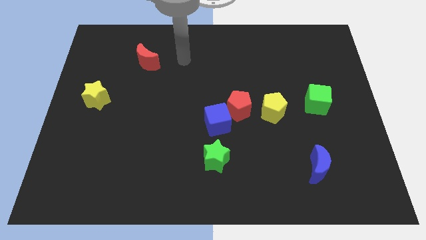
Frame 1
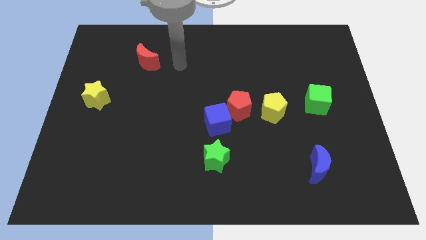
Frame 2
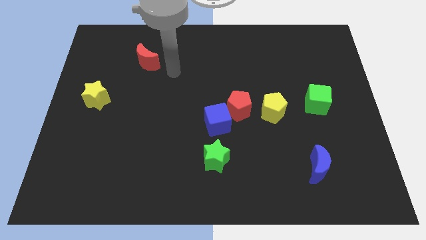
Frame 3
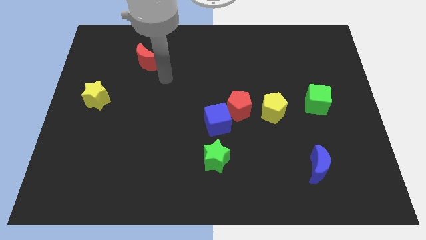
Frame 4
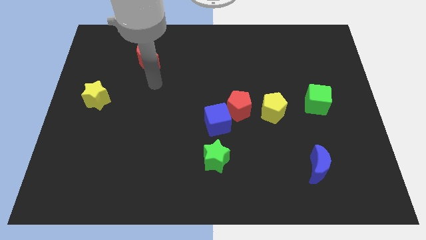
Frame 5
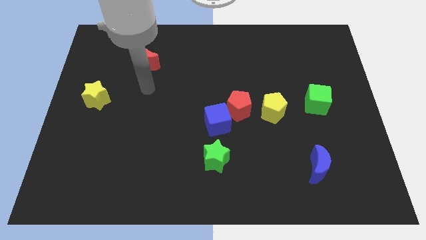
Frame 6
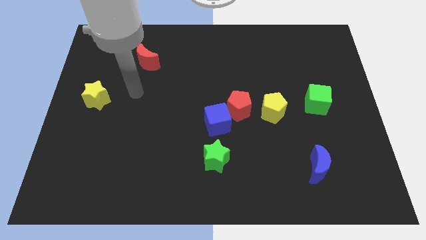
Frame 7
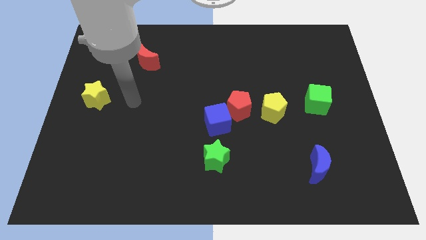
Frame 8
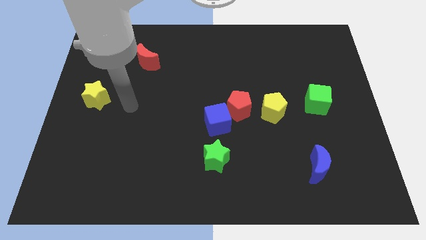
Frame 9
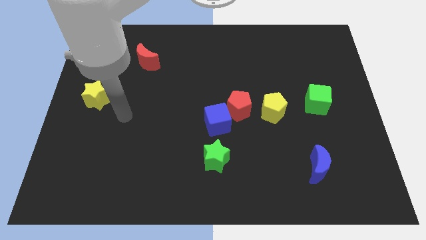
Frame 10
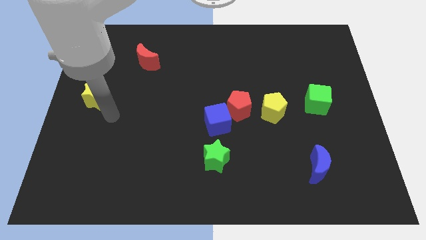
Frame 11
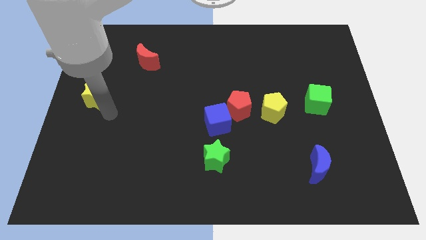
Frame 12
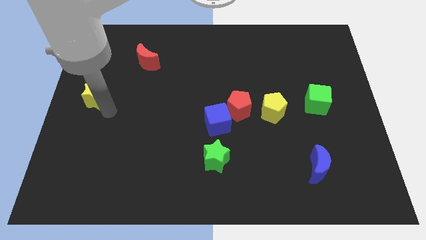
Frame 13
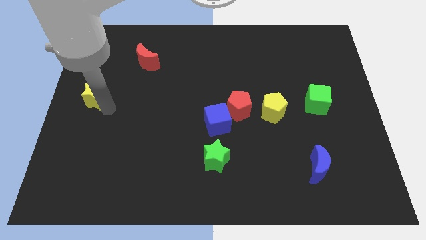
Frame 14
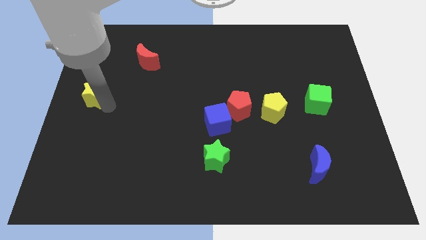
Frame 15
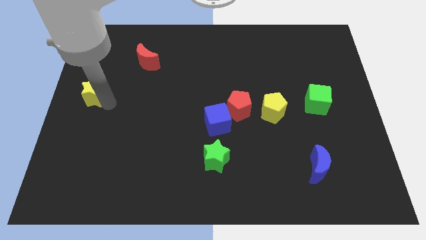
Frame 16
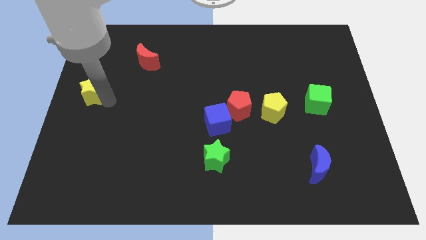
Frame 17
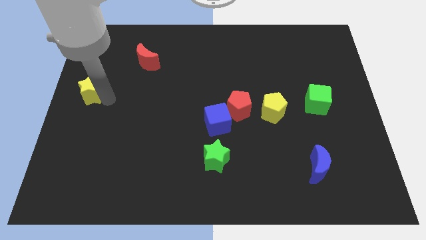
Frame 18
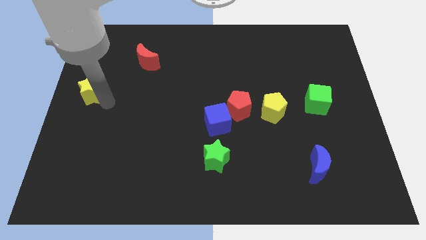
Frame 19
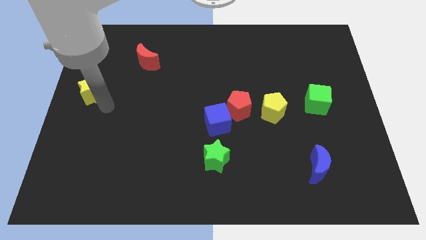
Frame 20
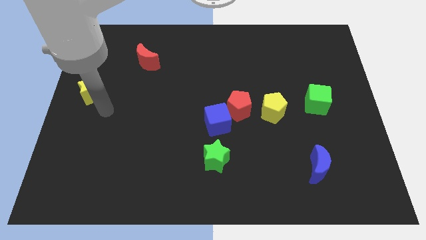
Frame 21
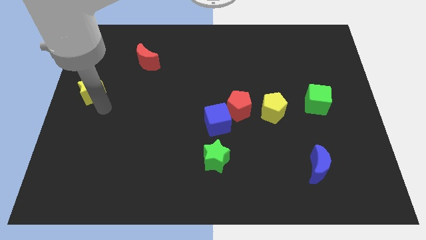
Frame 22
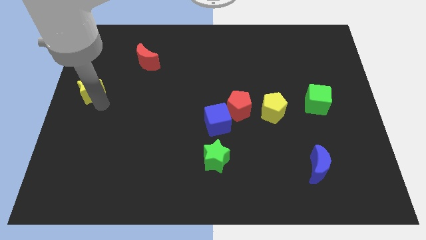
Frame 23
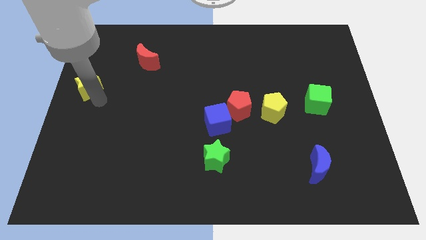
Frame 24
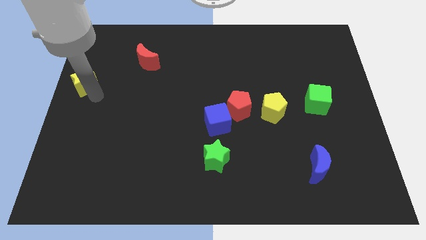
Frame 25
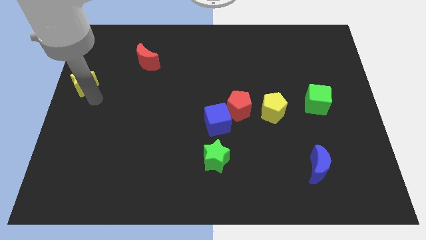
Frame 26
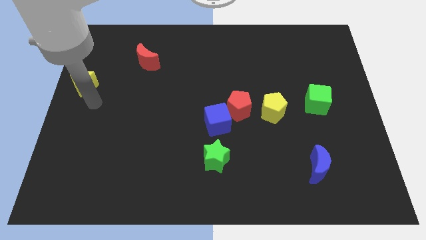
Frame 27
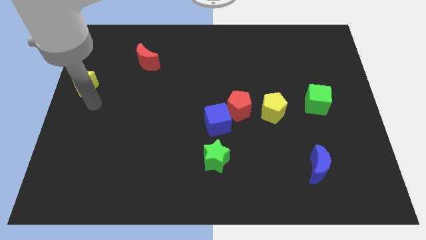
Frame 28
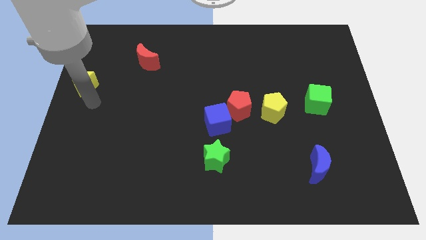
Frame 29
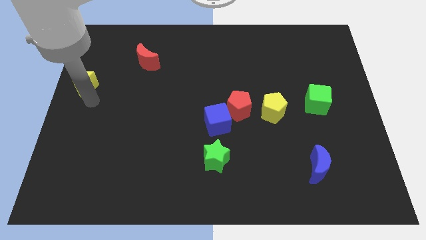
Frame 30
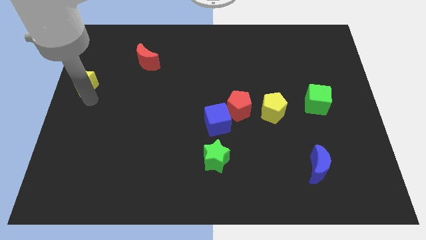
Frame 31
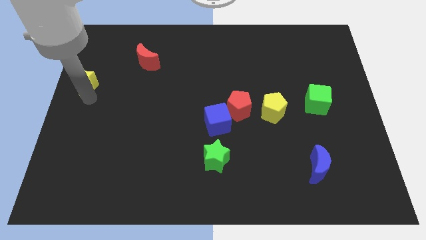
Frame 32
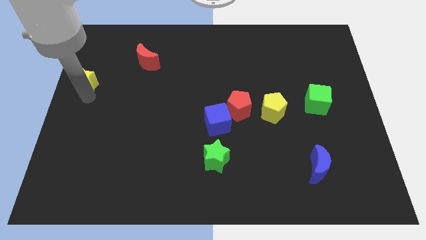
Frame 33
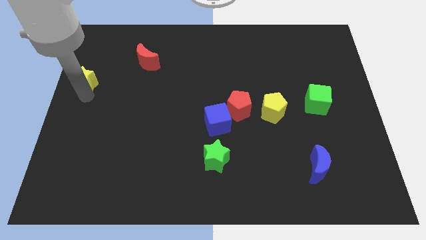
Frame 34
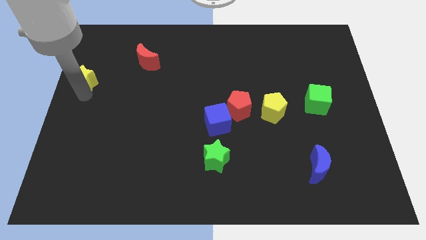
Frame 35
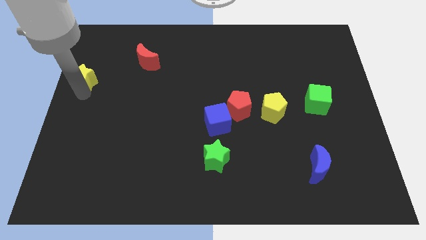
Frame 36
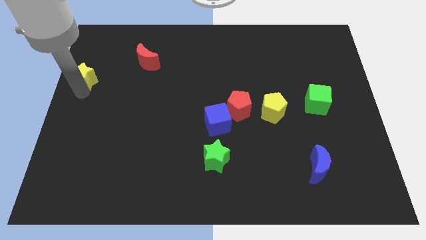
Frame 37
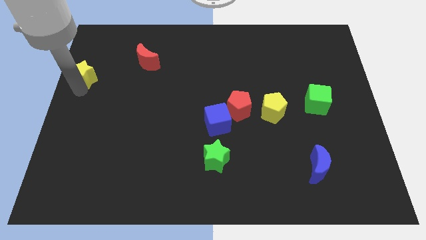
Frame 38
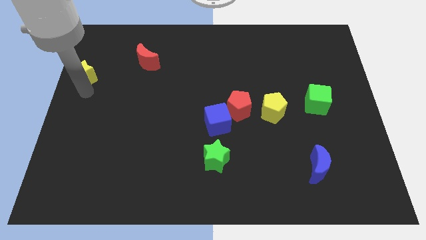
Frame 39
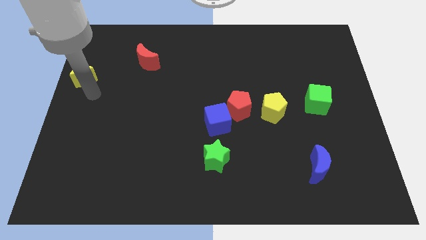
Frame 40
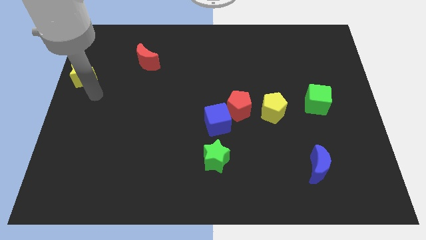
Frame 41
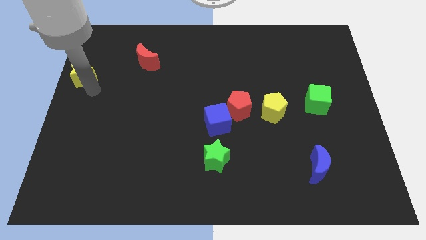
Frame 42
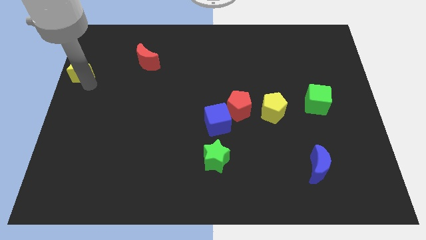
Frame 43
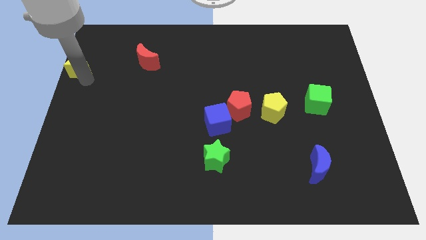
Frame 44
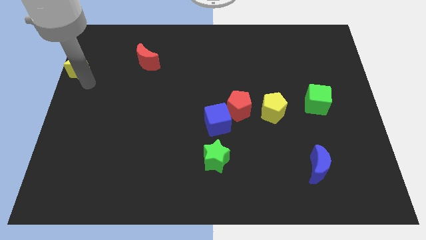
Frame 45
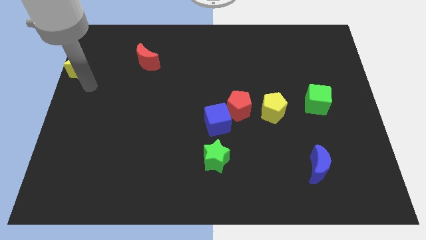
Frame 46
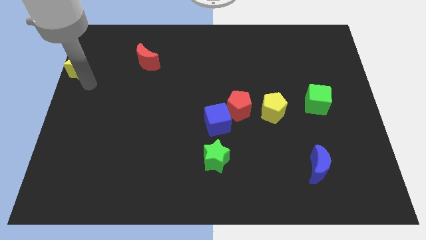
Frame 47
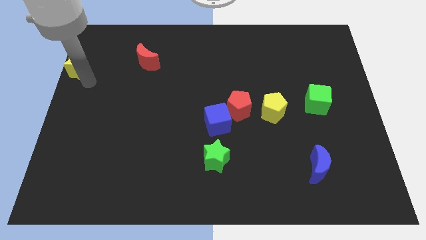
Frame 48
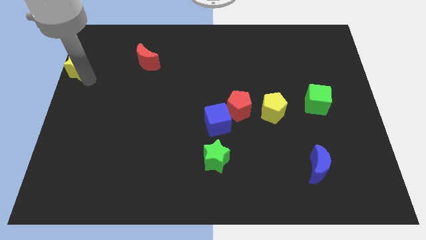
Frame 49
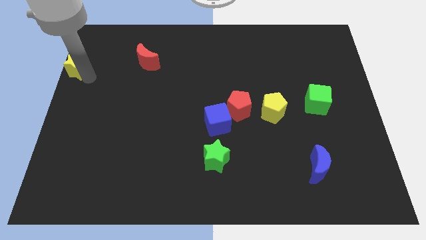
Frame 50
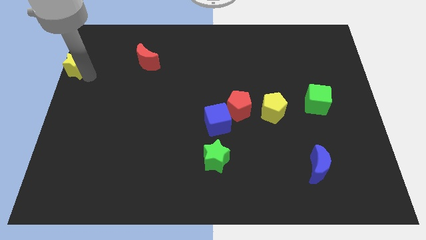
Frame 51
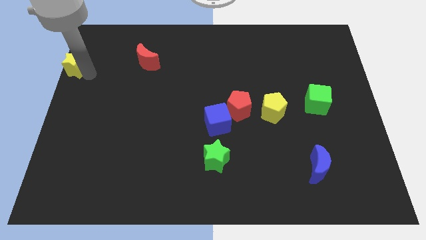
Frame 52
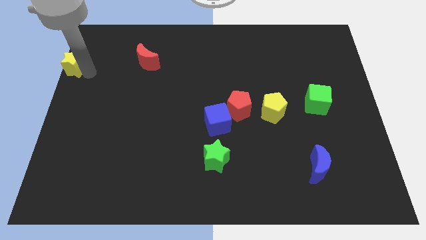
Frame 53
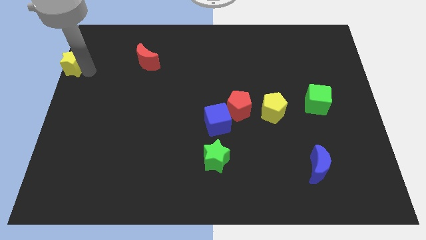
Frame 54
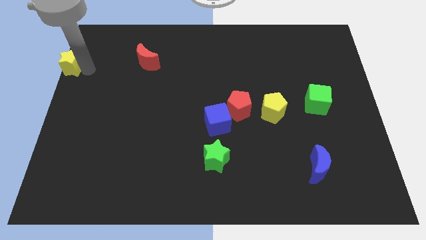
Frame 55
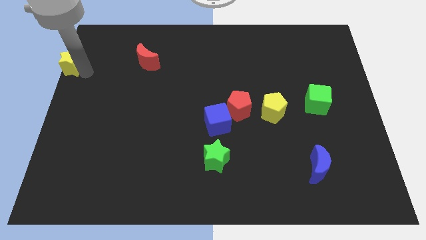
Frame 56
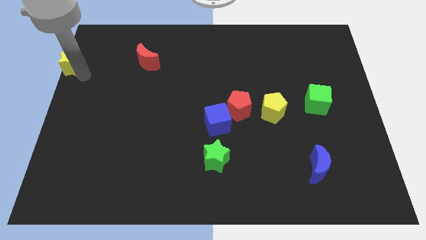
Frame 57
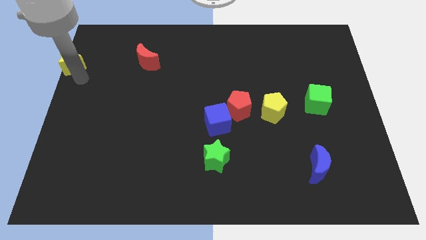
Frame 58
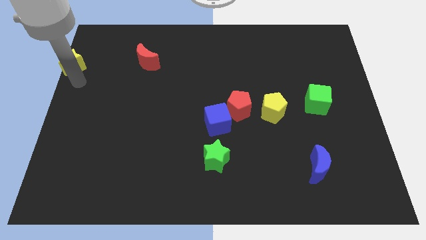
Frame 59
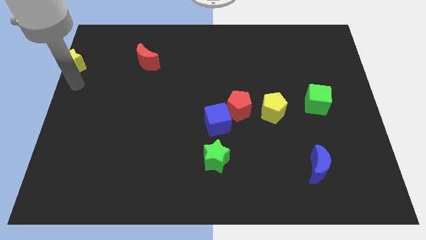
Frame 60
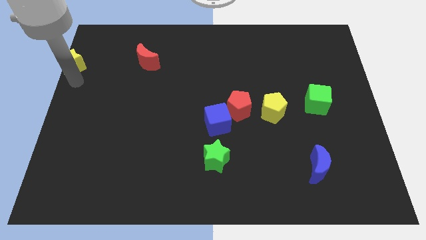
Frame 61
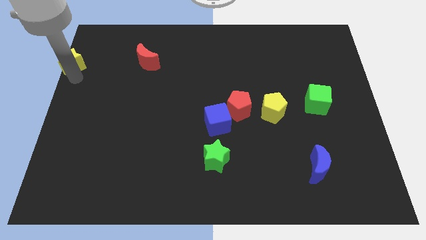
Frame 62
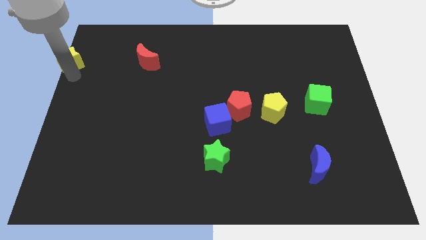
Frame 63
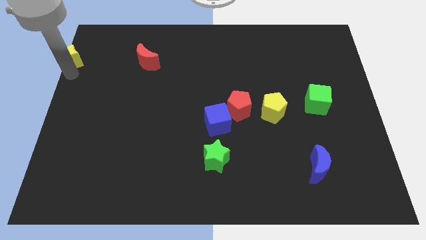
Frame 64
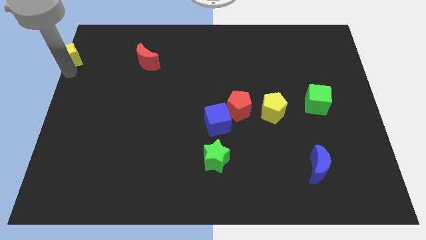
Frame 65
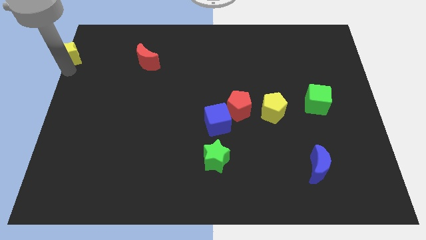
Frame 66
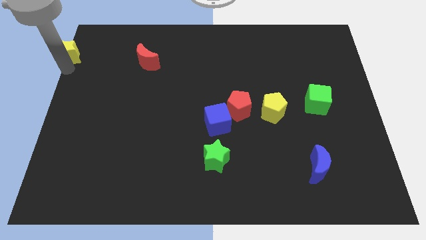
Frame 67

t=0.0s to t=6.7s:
push the yellow star to the upper left corner

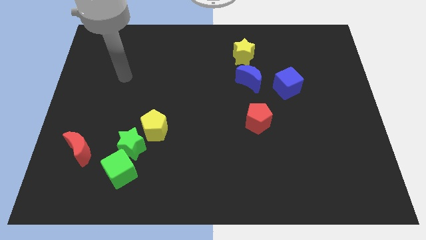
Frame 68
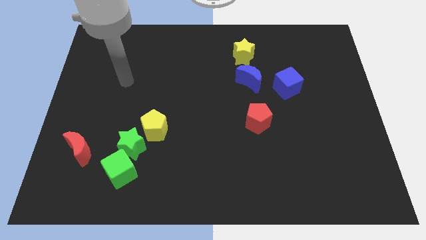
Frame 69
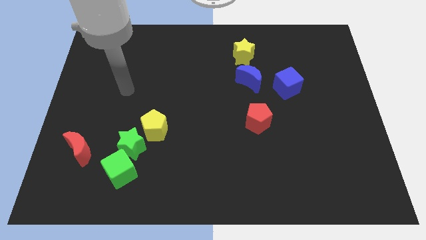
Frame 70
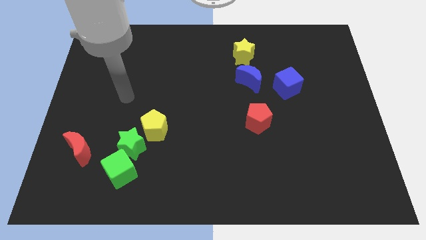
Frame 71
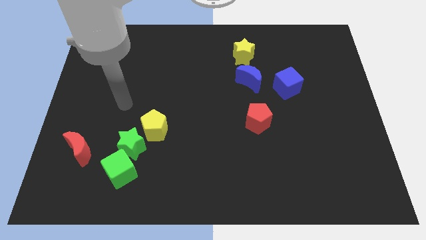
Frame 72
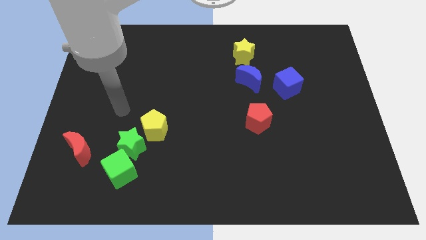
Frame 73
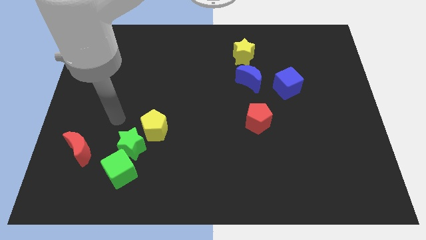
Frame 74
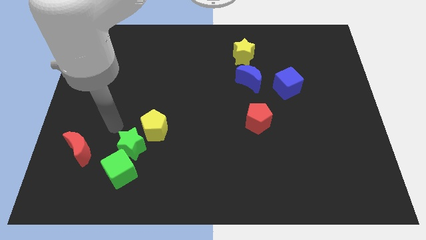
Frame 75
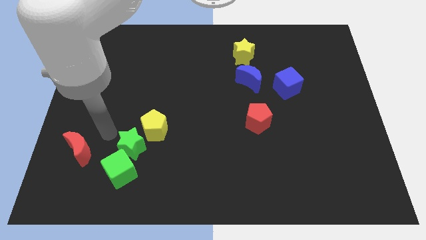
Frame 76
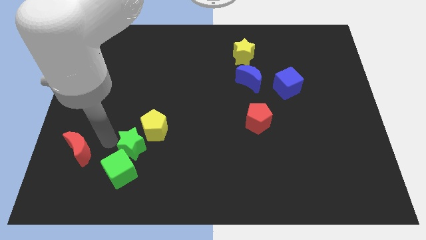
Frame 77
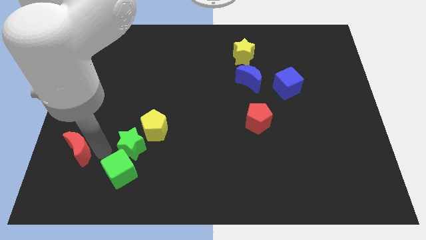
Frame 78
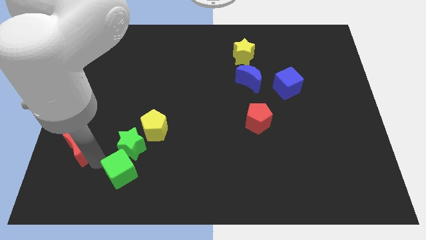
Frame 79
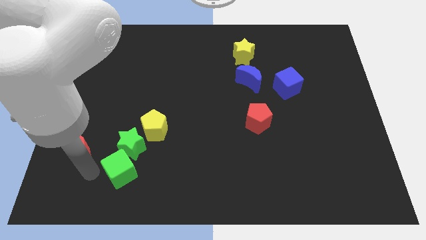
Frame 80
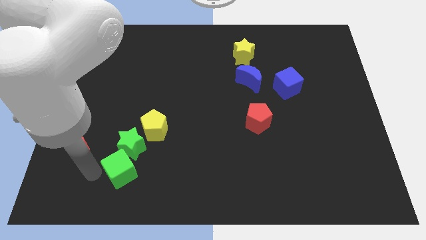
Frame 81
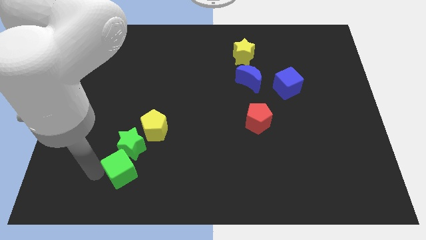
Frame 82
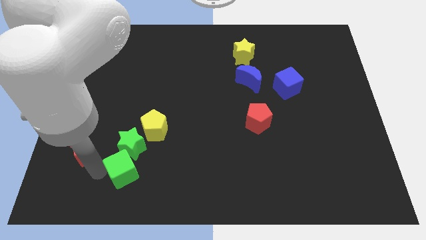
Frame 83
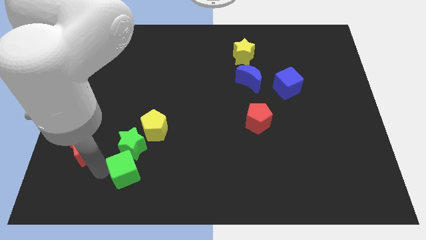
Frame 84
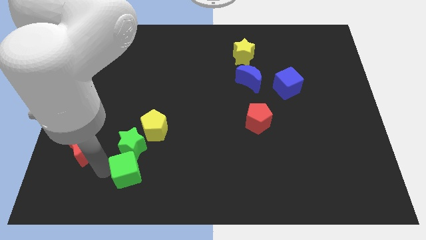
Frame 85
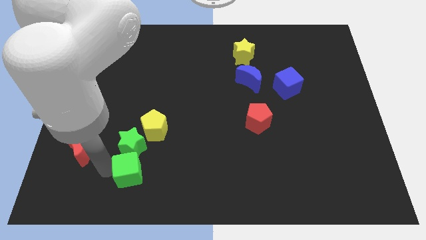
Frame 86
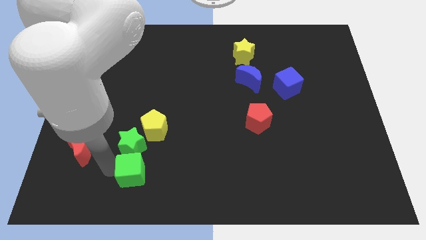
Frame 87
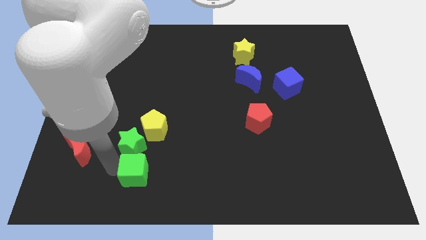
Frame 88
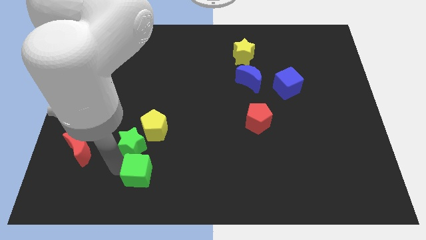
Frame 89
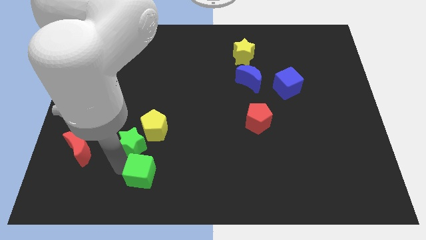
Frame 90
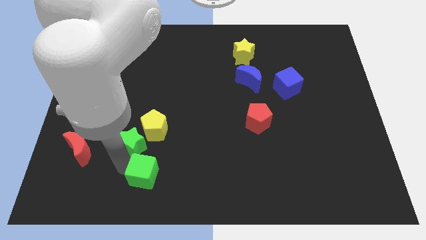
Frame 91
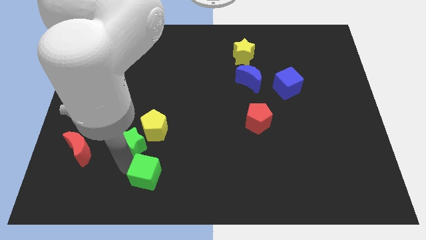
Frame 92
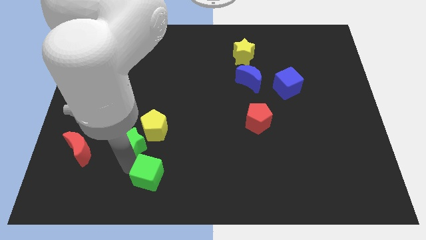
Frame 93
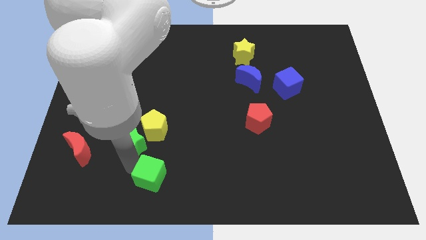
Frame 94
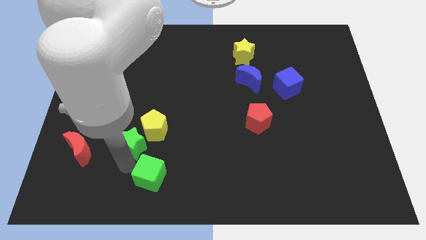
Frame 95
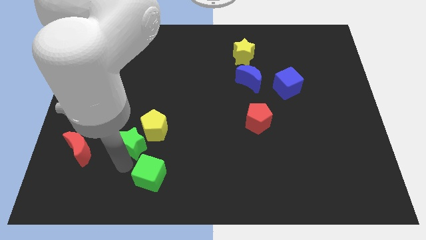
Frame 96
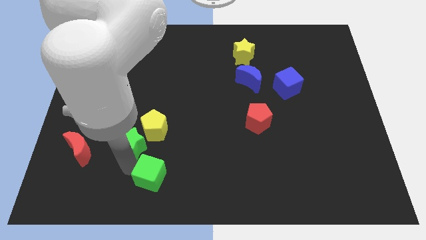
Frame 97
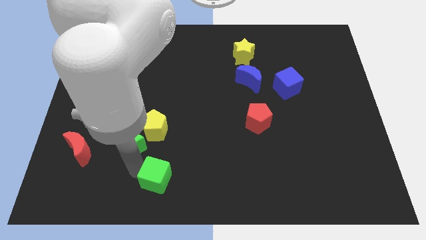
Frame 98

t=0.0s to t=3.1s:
push the green cube to the bottom
